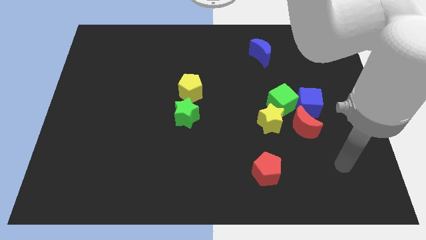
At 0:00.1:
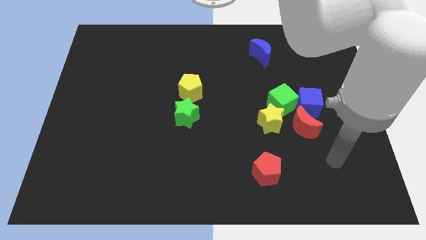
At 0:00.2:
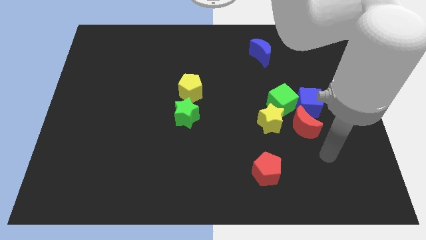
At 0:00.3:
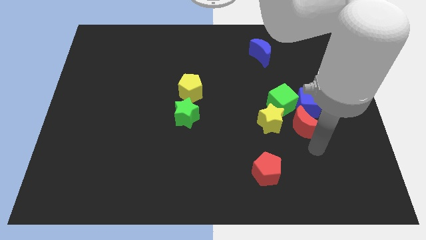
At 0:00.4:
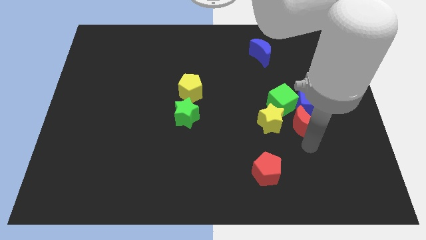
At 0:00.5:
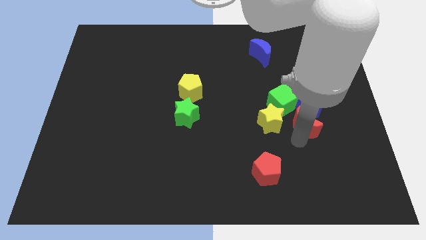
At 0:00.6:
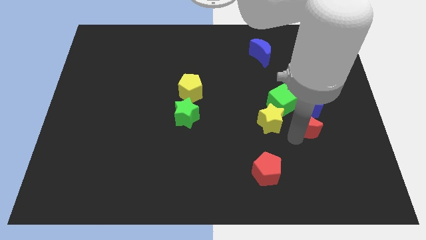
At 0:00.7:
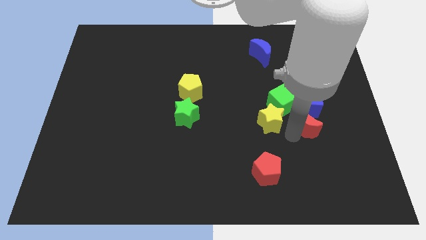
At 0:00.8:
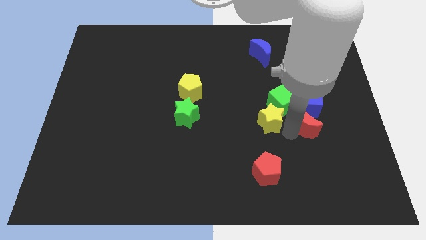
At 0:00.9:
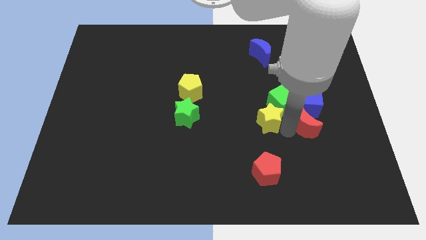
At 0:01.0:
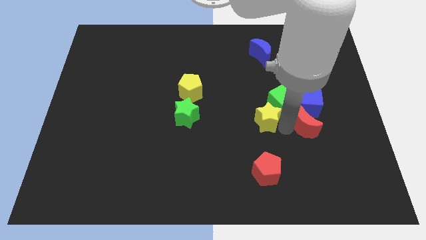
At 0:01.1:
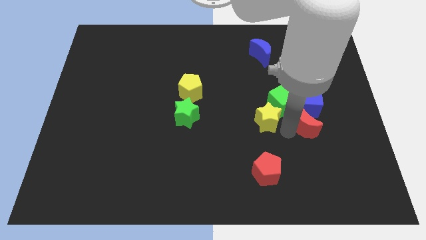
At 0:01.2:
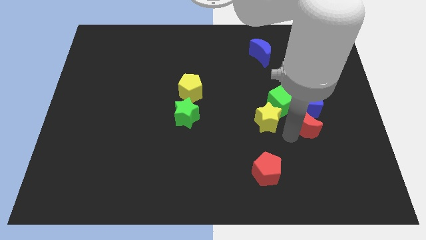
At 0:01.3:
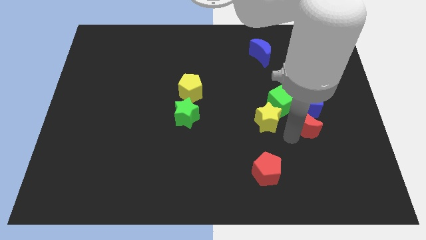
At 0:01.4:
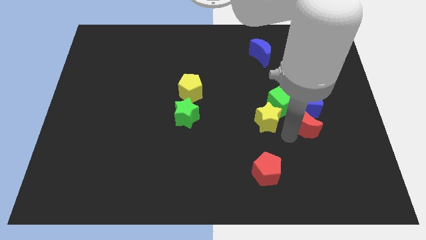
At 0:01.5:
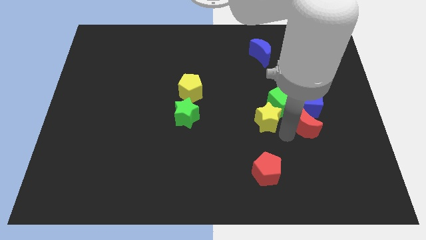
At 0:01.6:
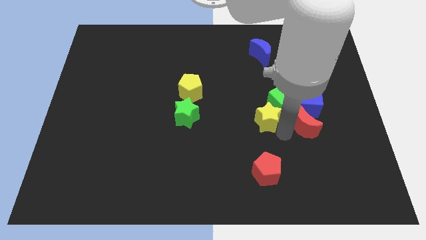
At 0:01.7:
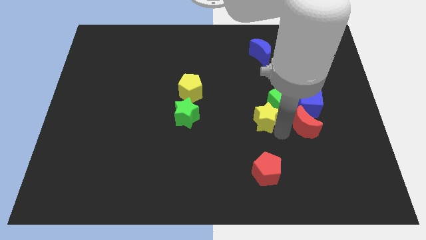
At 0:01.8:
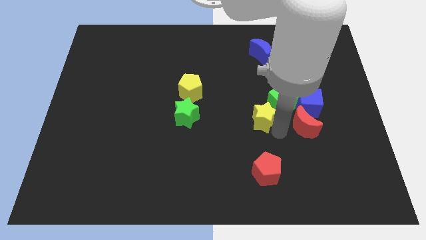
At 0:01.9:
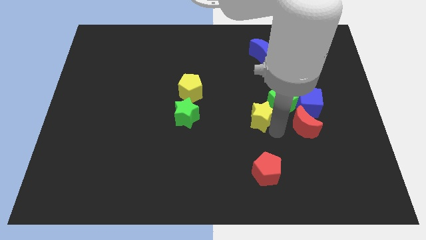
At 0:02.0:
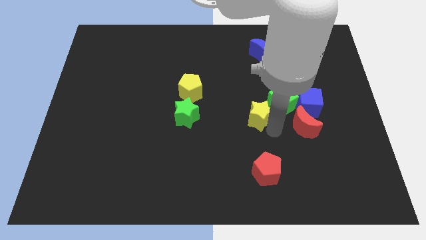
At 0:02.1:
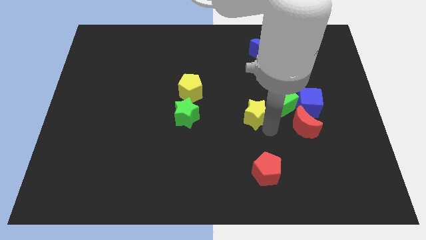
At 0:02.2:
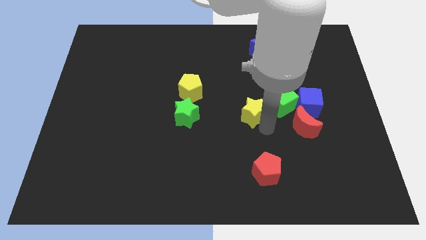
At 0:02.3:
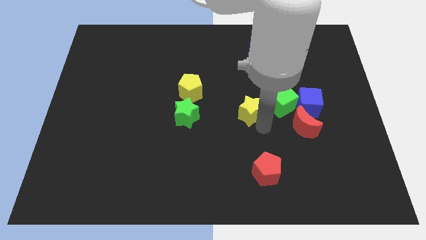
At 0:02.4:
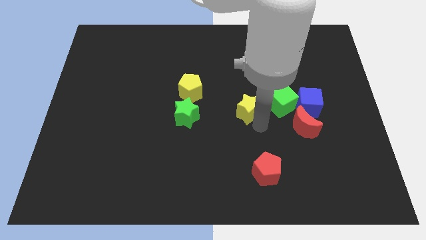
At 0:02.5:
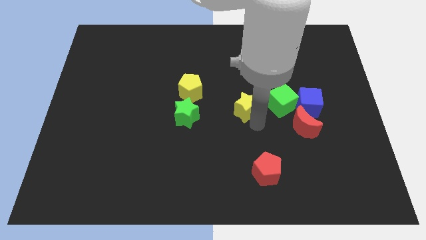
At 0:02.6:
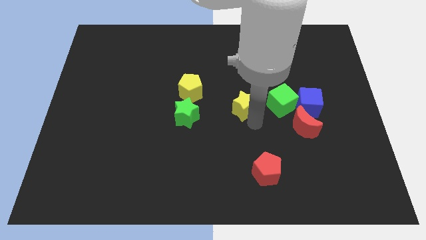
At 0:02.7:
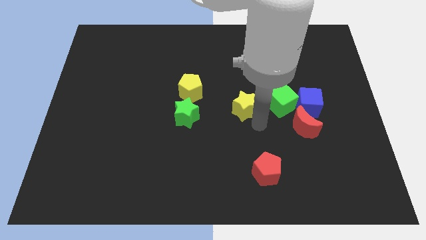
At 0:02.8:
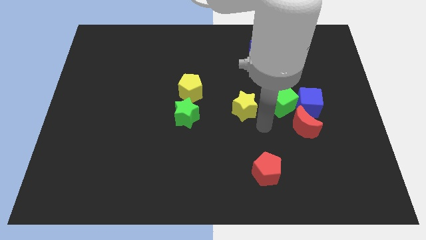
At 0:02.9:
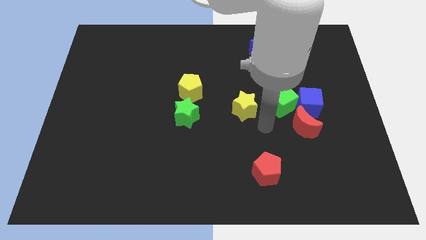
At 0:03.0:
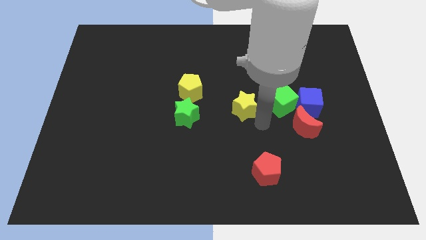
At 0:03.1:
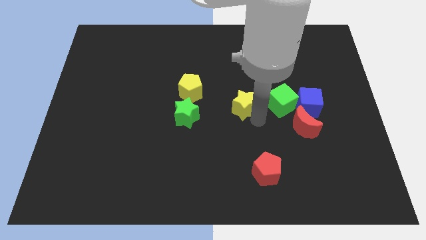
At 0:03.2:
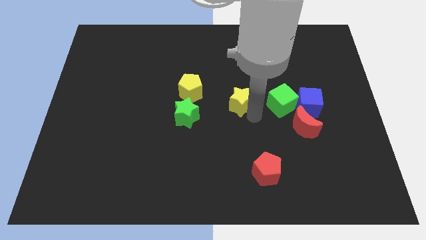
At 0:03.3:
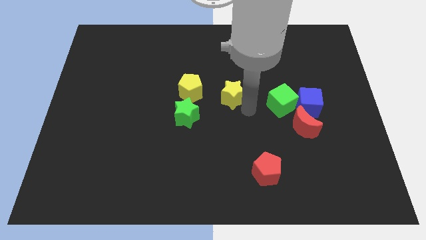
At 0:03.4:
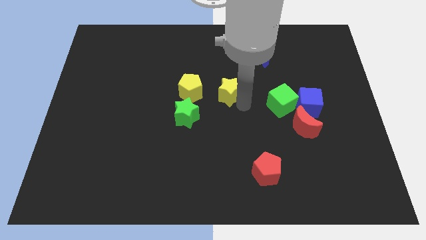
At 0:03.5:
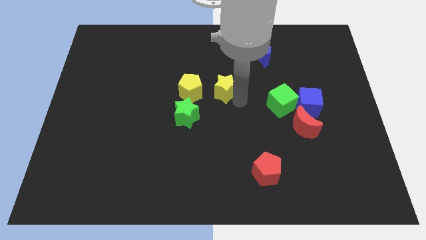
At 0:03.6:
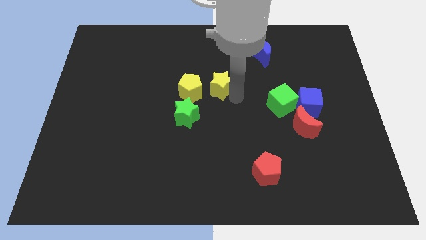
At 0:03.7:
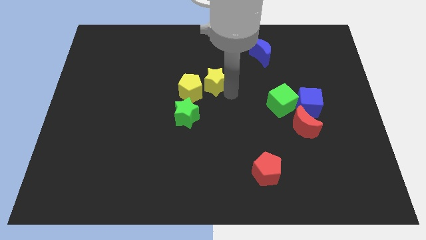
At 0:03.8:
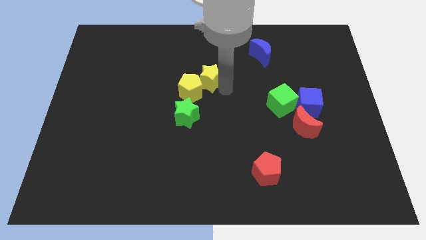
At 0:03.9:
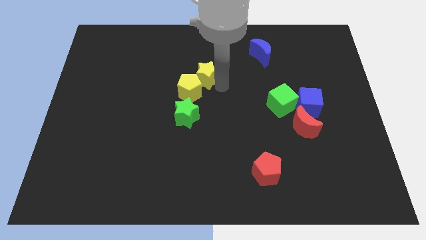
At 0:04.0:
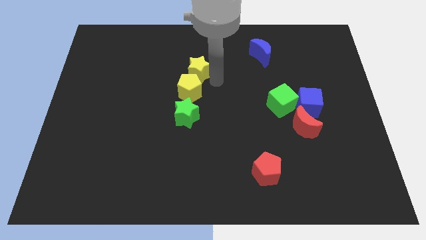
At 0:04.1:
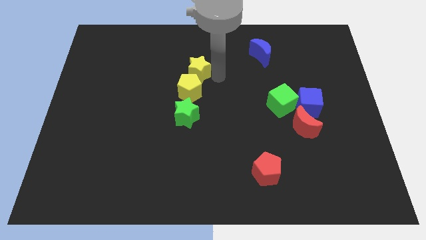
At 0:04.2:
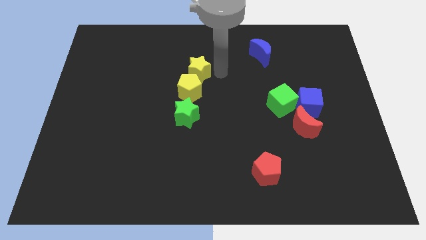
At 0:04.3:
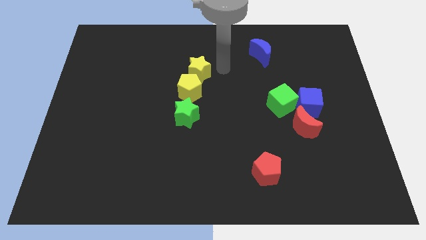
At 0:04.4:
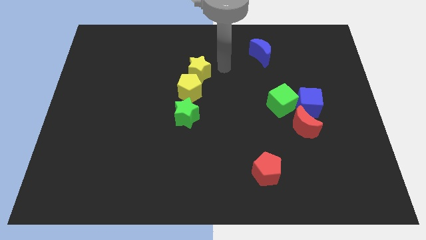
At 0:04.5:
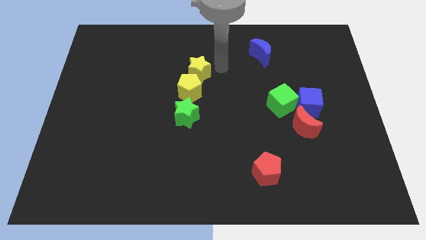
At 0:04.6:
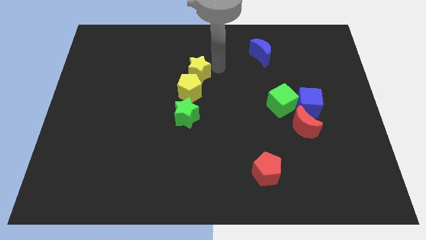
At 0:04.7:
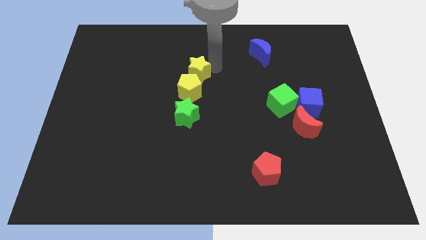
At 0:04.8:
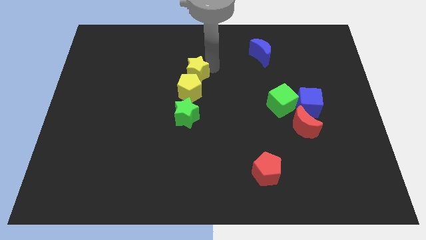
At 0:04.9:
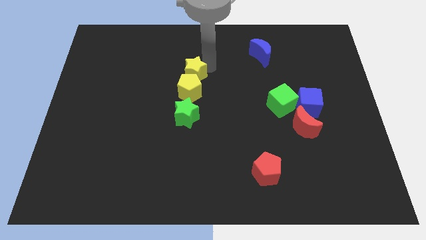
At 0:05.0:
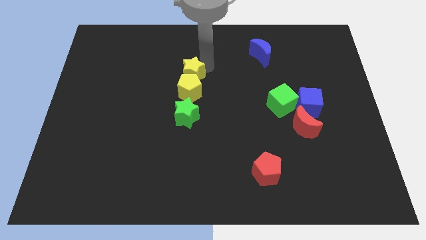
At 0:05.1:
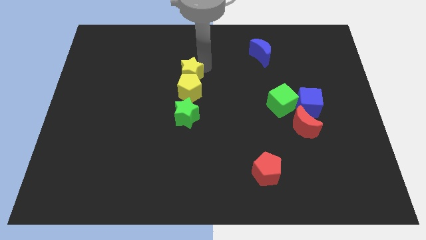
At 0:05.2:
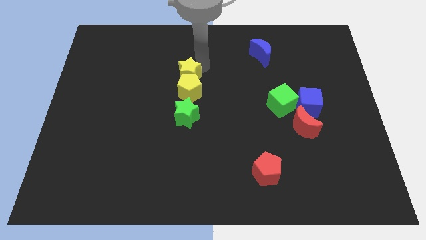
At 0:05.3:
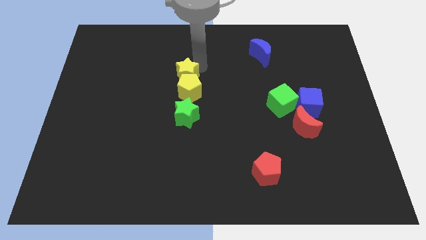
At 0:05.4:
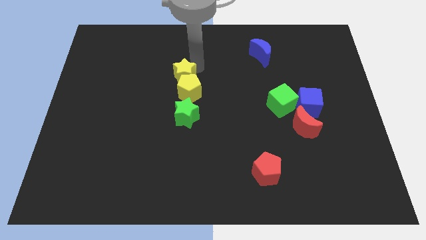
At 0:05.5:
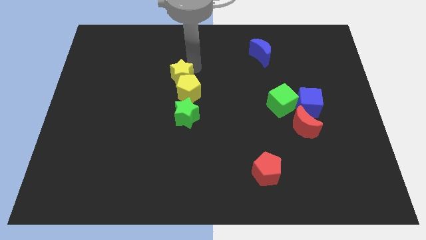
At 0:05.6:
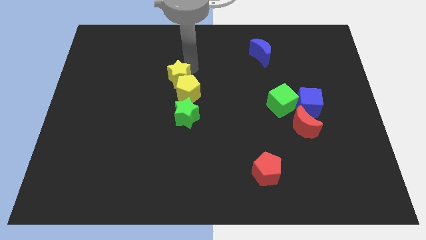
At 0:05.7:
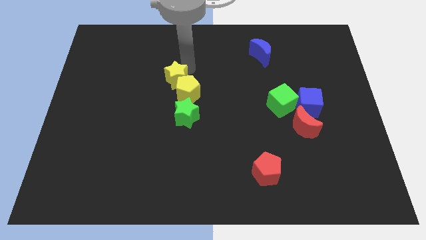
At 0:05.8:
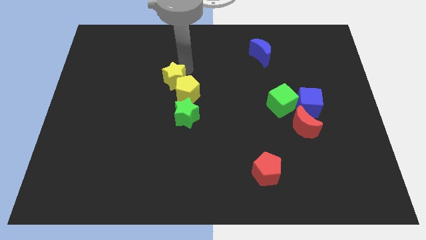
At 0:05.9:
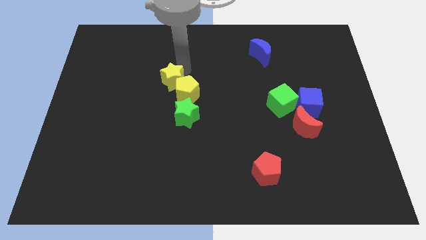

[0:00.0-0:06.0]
push the yellow star just left of the yellow pentagon

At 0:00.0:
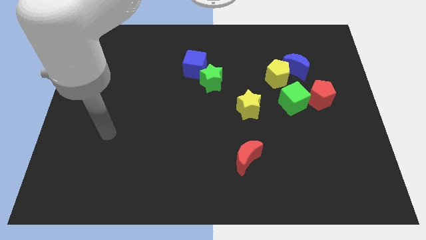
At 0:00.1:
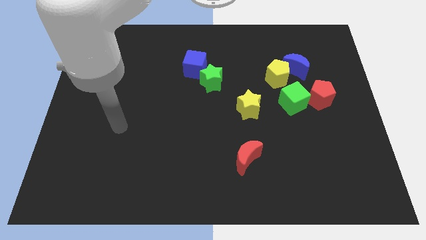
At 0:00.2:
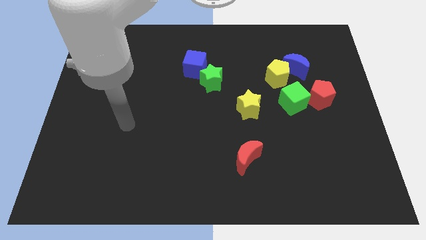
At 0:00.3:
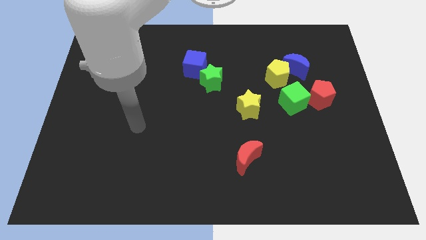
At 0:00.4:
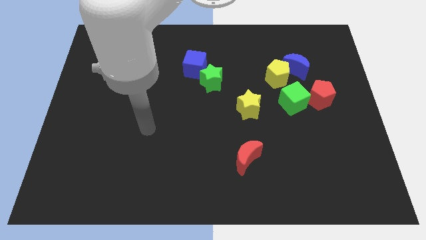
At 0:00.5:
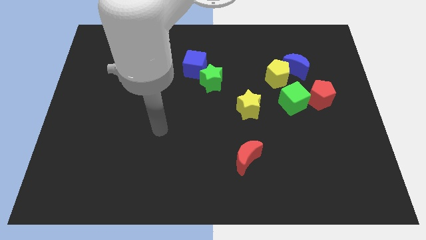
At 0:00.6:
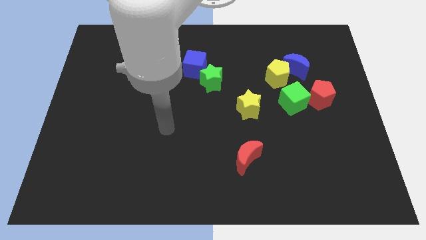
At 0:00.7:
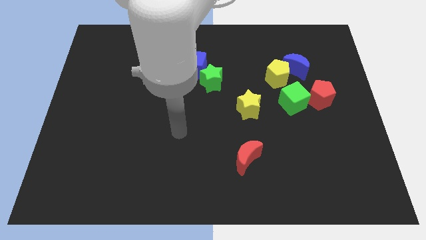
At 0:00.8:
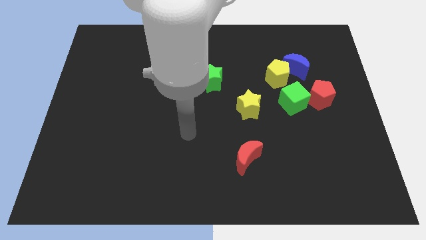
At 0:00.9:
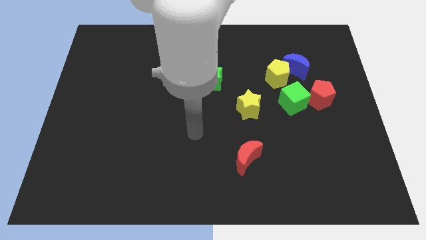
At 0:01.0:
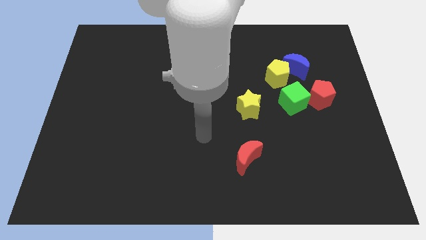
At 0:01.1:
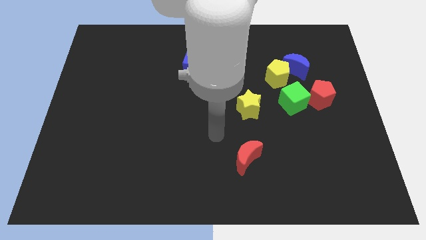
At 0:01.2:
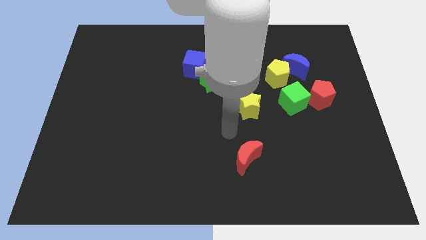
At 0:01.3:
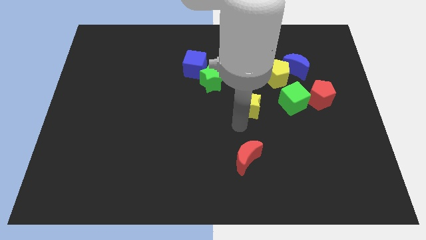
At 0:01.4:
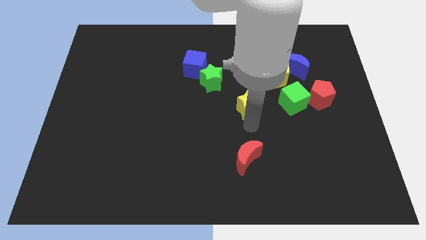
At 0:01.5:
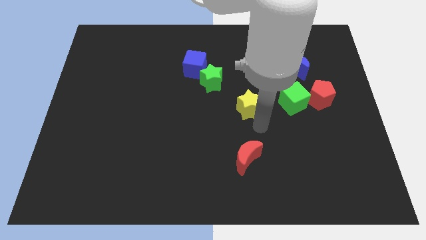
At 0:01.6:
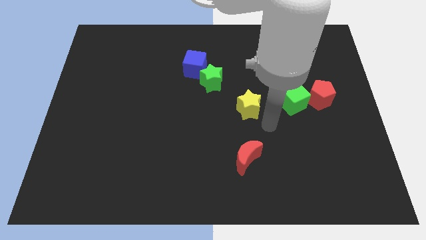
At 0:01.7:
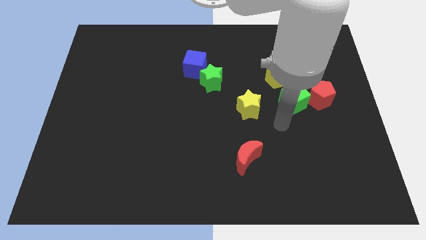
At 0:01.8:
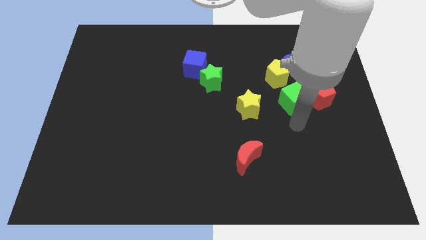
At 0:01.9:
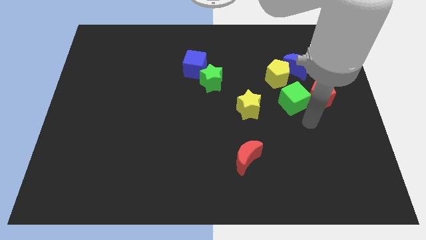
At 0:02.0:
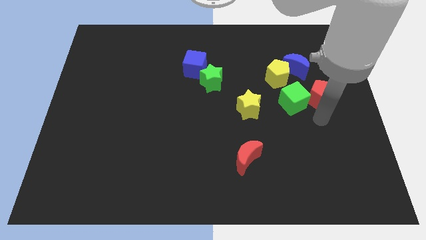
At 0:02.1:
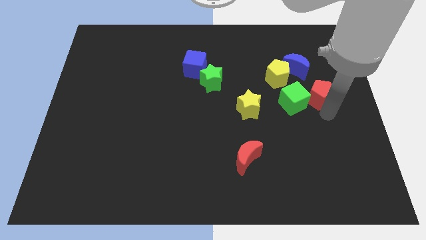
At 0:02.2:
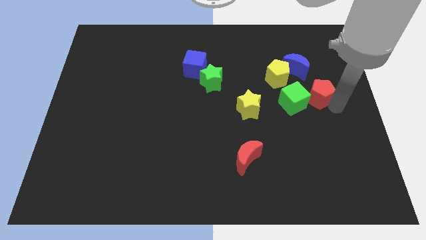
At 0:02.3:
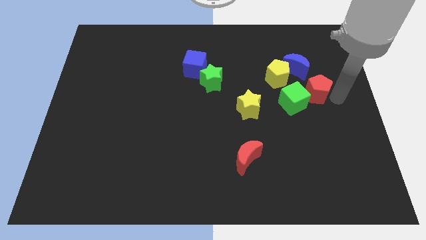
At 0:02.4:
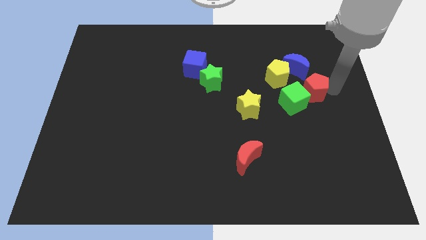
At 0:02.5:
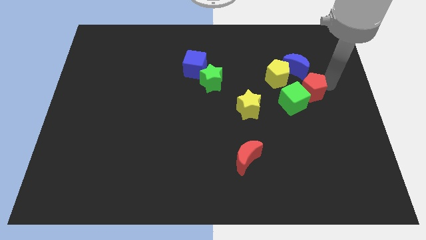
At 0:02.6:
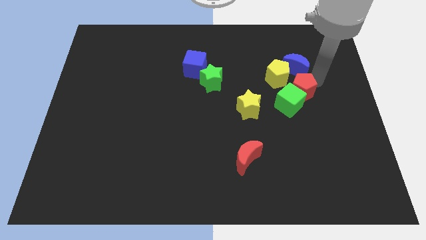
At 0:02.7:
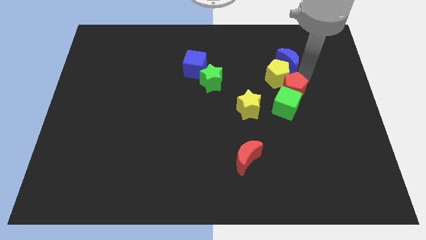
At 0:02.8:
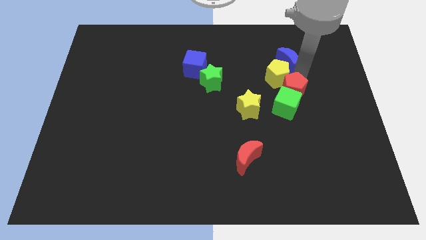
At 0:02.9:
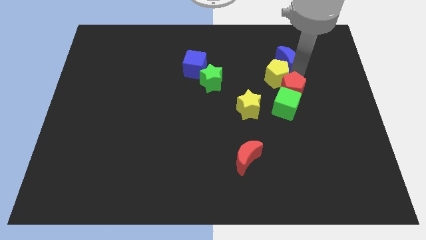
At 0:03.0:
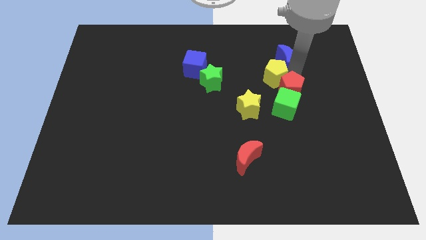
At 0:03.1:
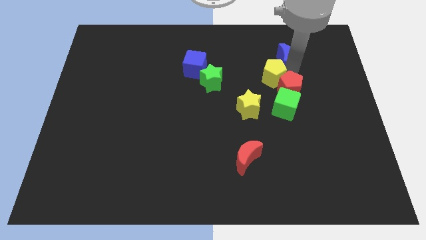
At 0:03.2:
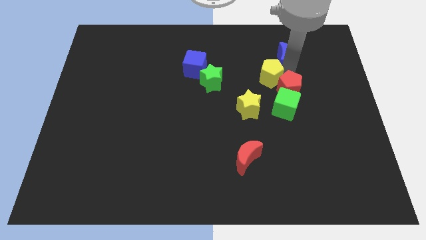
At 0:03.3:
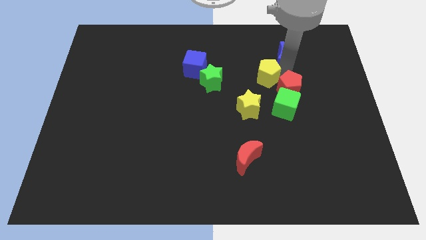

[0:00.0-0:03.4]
move the yellow pentagon above the yellow star
